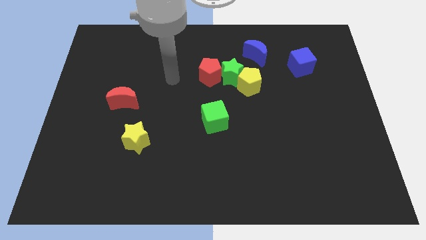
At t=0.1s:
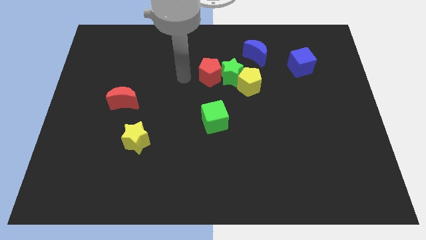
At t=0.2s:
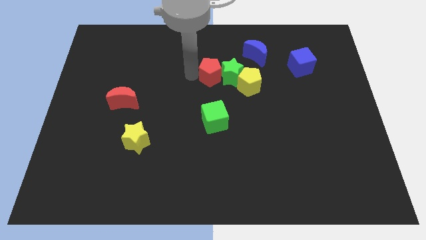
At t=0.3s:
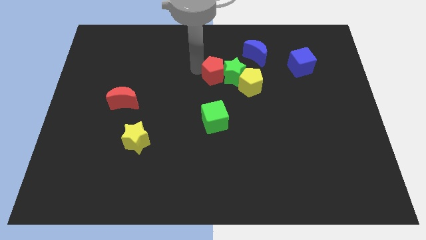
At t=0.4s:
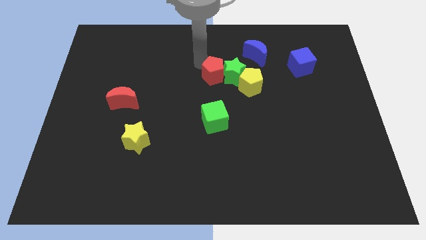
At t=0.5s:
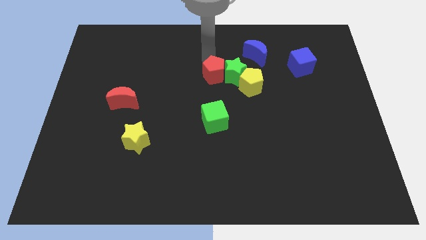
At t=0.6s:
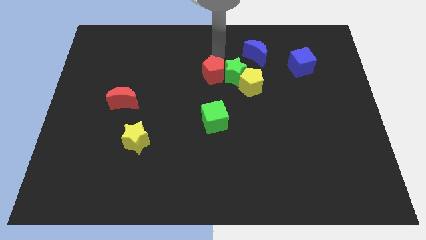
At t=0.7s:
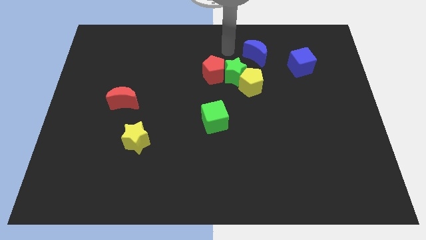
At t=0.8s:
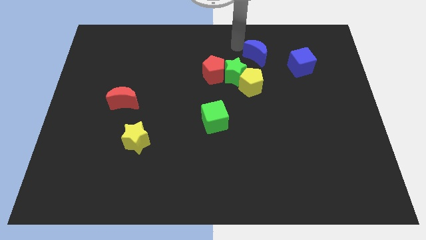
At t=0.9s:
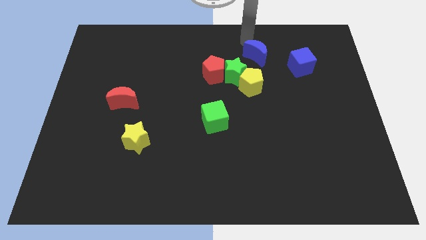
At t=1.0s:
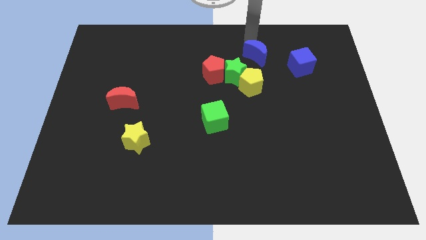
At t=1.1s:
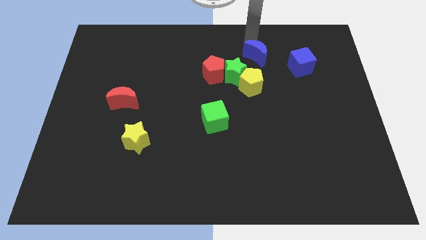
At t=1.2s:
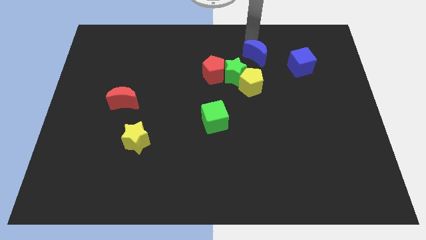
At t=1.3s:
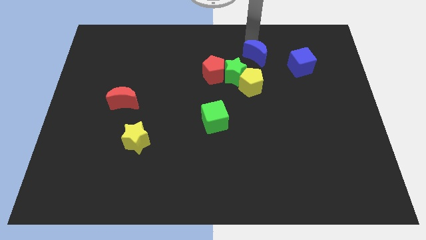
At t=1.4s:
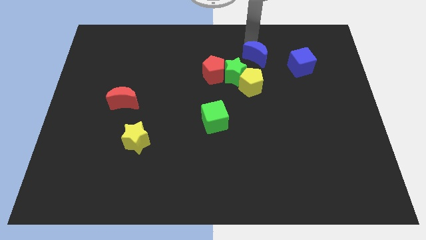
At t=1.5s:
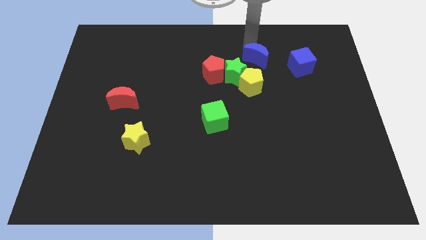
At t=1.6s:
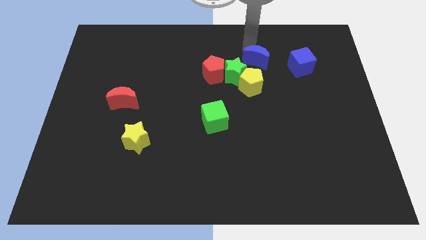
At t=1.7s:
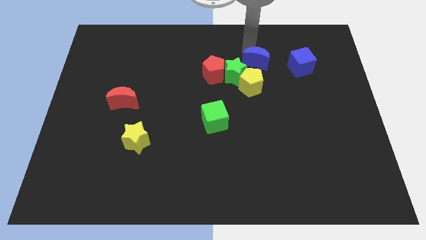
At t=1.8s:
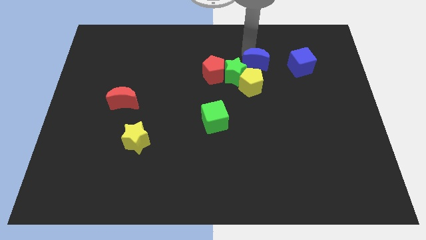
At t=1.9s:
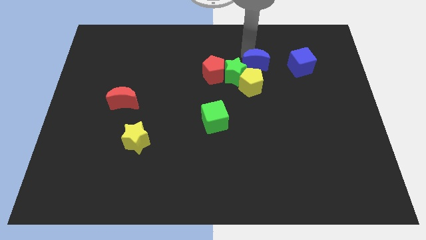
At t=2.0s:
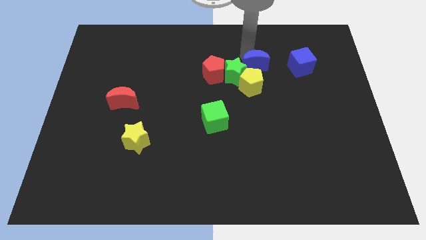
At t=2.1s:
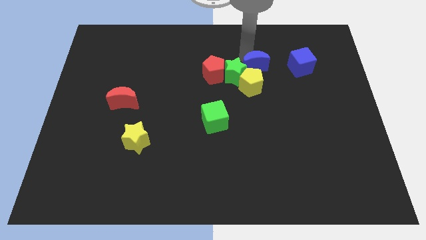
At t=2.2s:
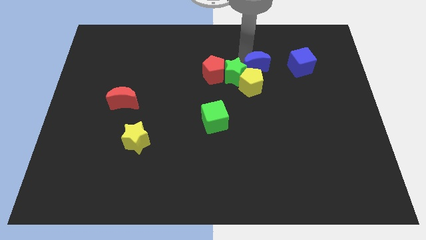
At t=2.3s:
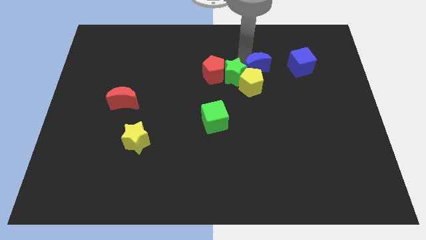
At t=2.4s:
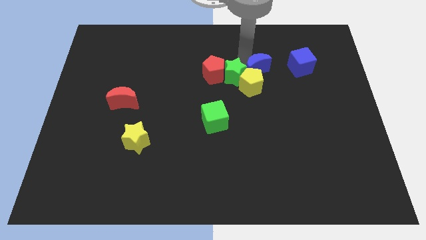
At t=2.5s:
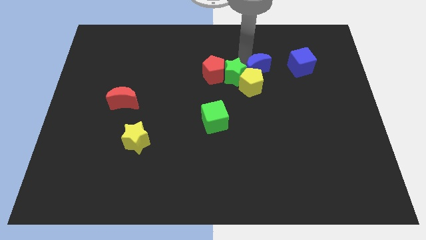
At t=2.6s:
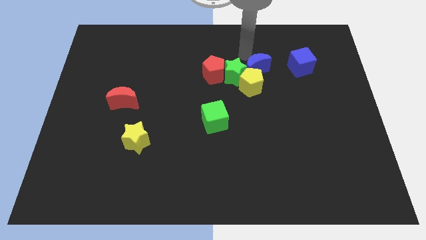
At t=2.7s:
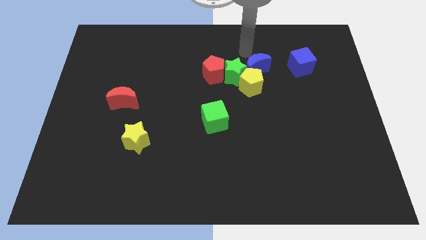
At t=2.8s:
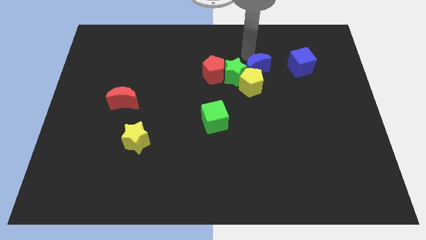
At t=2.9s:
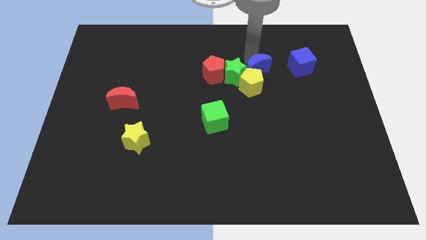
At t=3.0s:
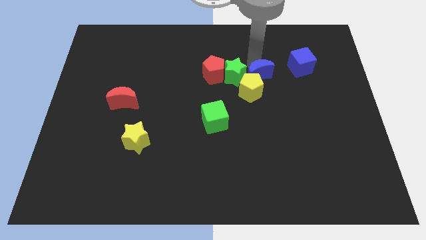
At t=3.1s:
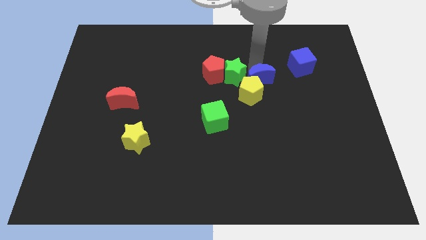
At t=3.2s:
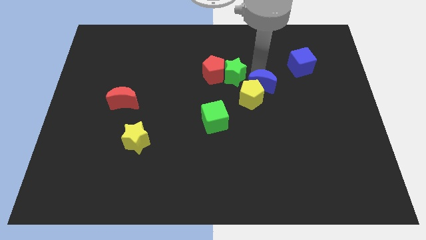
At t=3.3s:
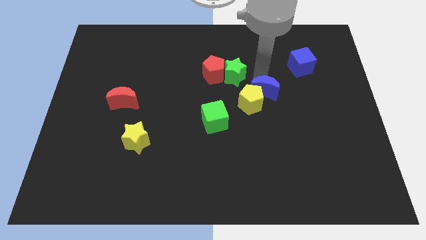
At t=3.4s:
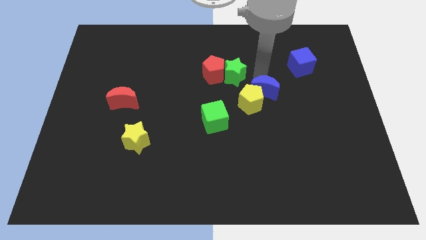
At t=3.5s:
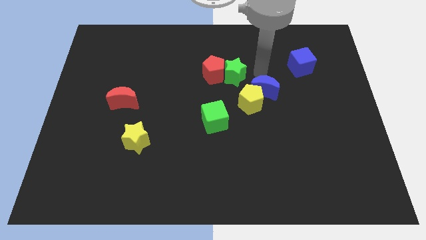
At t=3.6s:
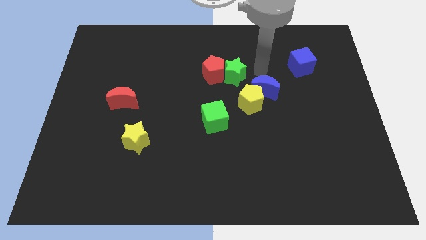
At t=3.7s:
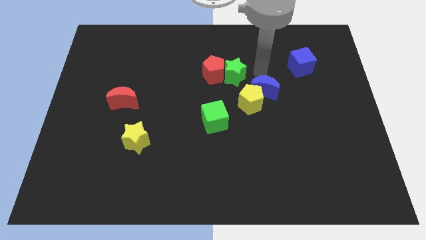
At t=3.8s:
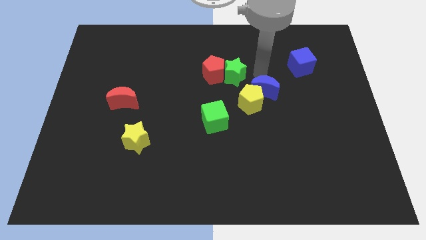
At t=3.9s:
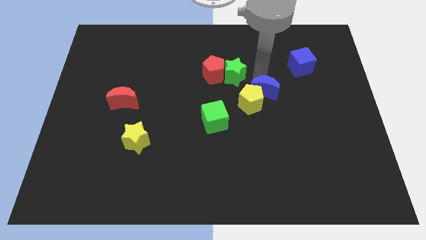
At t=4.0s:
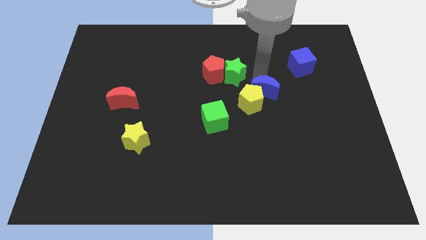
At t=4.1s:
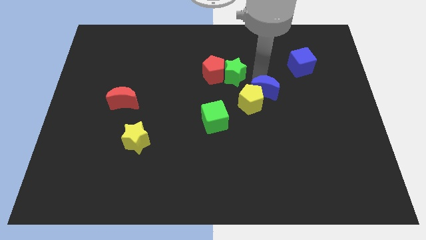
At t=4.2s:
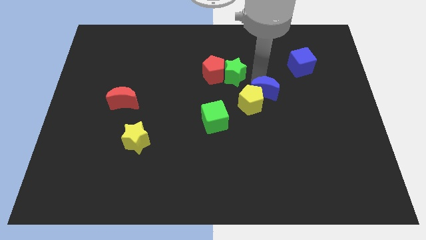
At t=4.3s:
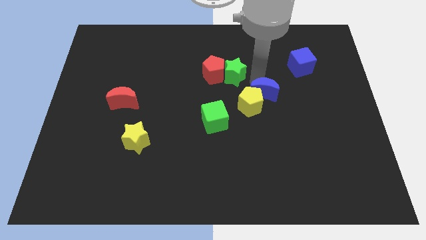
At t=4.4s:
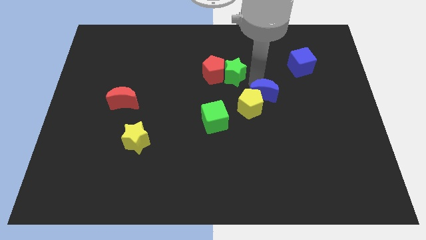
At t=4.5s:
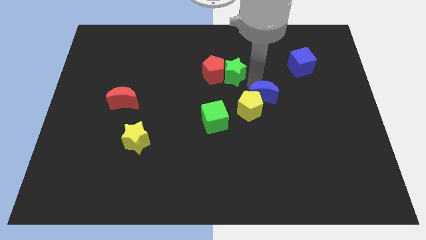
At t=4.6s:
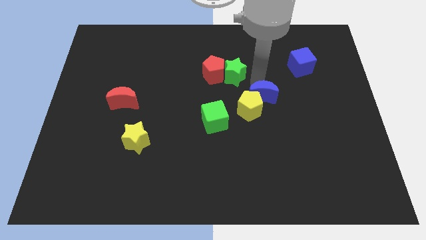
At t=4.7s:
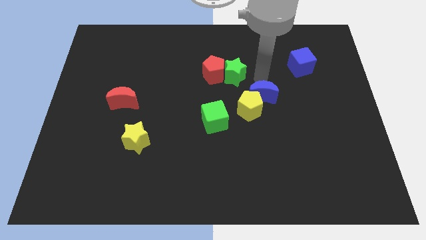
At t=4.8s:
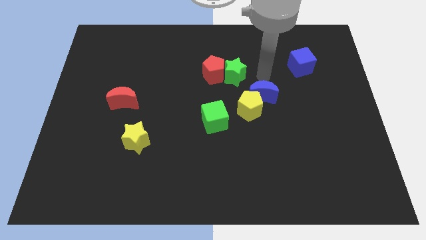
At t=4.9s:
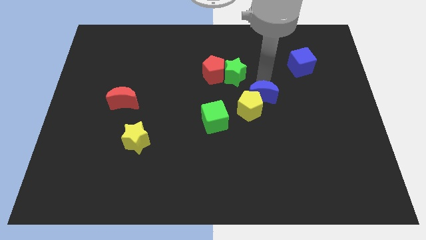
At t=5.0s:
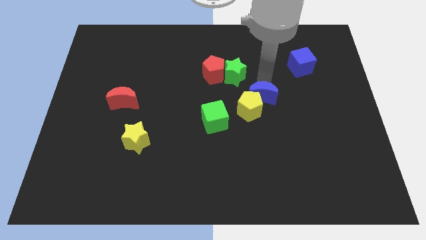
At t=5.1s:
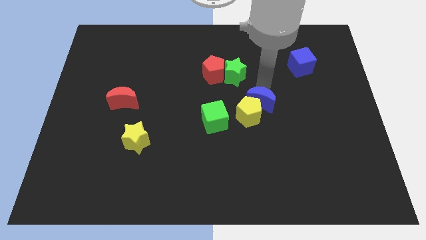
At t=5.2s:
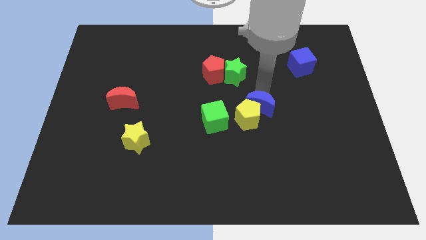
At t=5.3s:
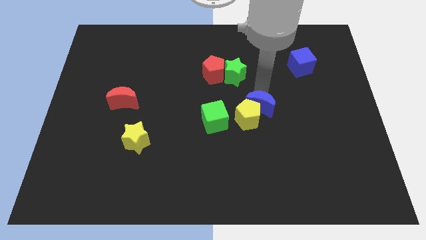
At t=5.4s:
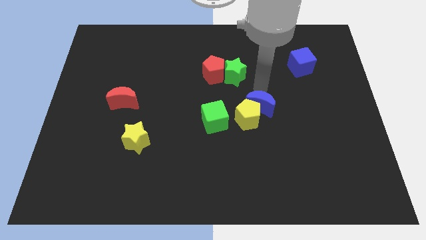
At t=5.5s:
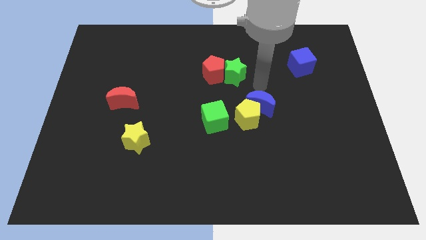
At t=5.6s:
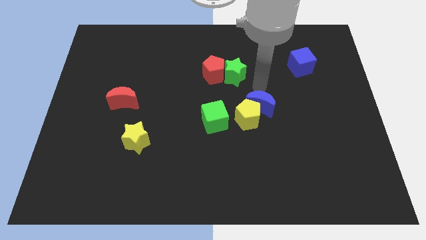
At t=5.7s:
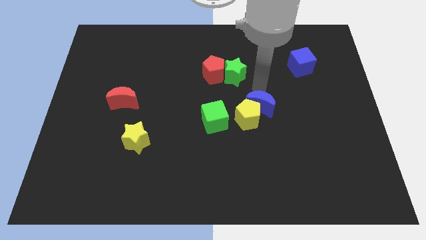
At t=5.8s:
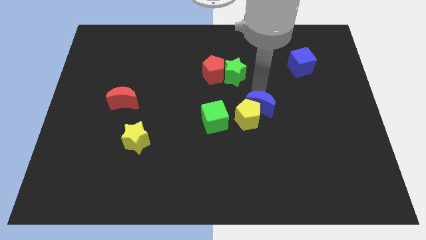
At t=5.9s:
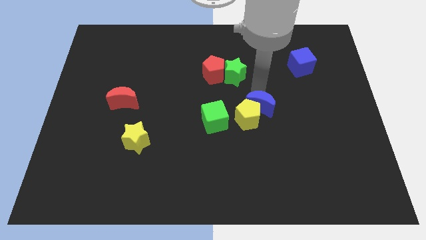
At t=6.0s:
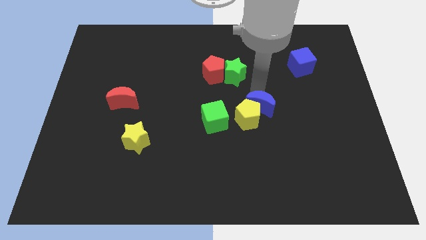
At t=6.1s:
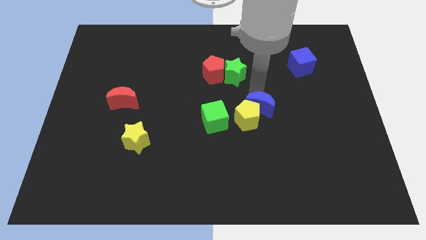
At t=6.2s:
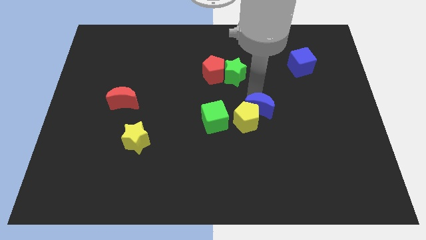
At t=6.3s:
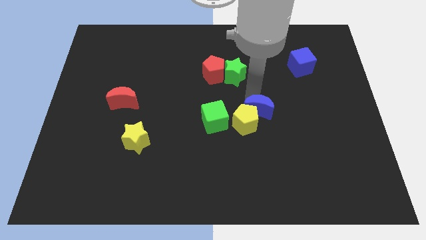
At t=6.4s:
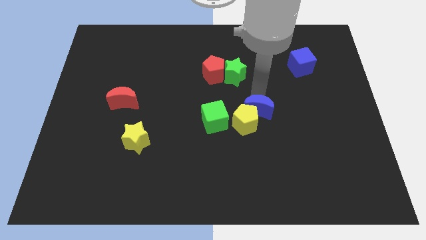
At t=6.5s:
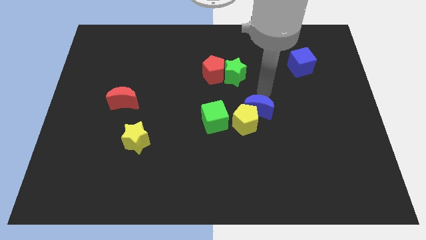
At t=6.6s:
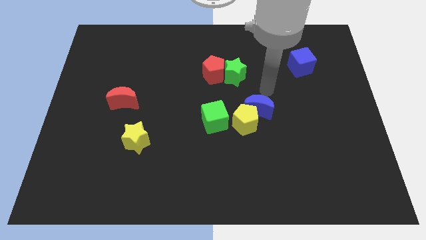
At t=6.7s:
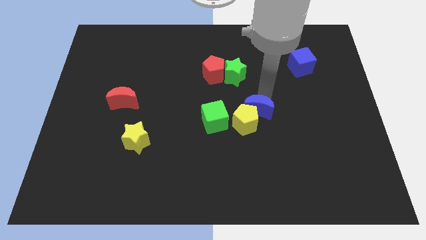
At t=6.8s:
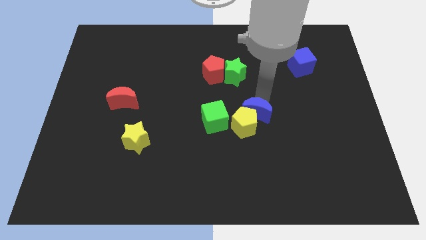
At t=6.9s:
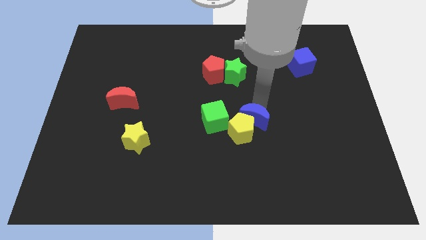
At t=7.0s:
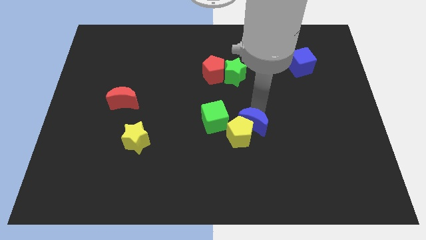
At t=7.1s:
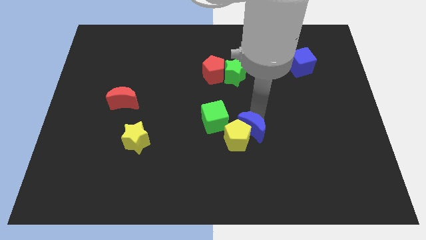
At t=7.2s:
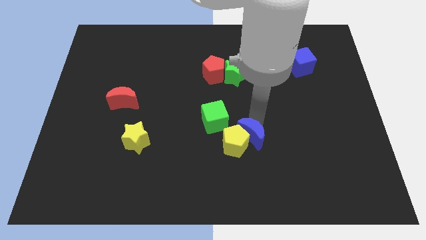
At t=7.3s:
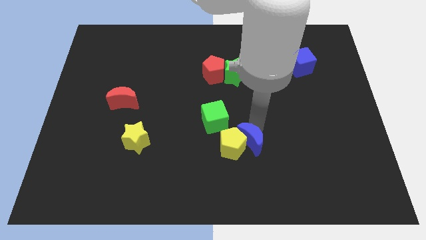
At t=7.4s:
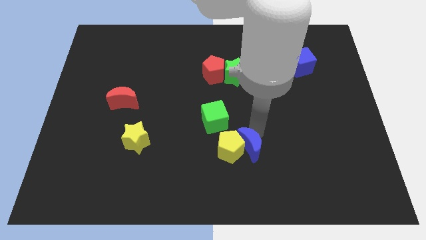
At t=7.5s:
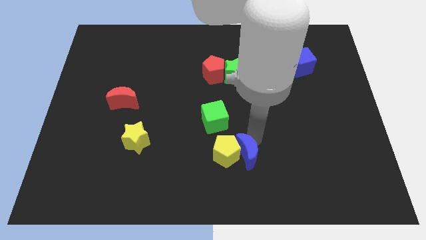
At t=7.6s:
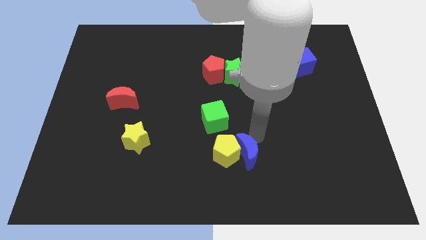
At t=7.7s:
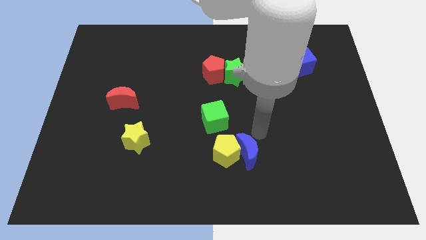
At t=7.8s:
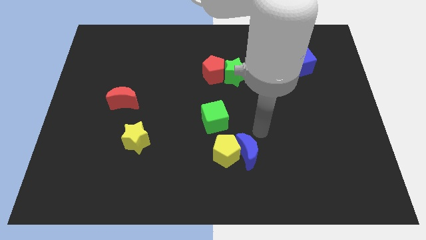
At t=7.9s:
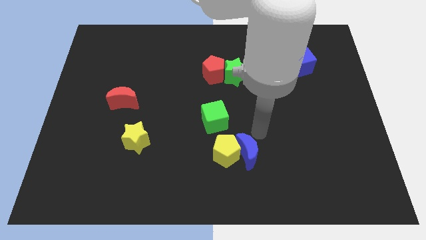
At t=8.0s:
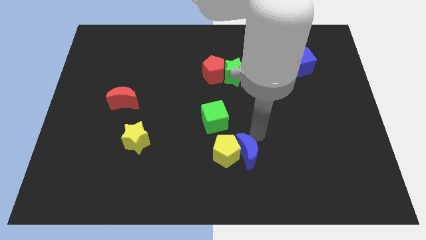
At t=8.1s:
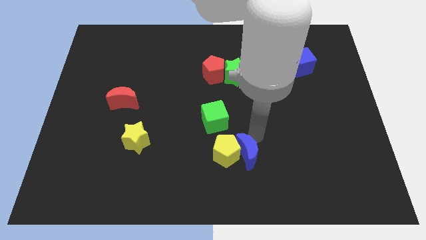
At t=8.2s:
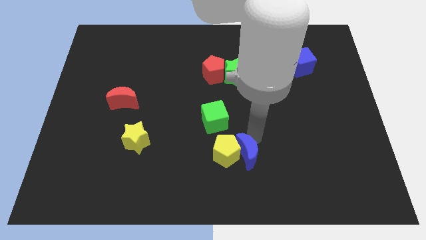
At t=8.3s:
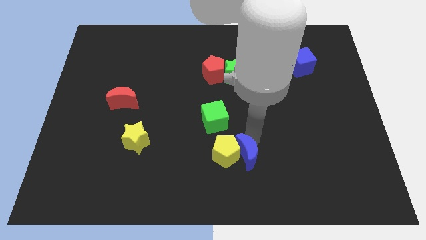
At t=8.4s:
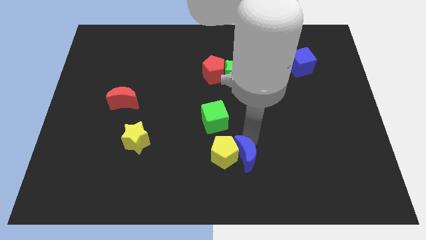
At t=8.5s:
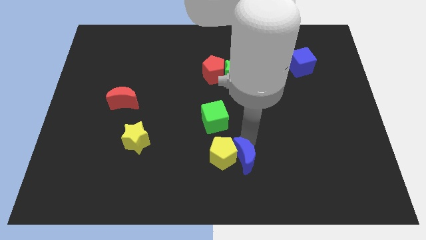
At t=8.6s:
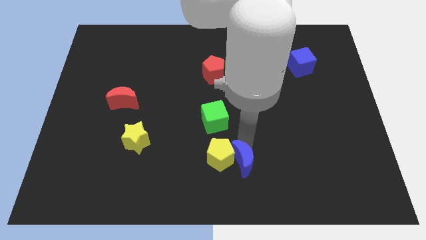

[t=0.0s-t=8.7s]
push the blue moon to the bottom
